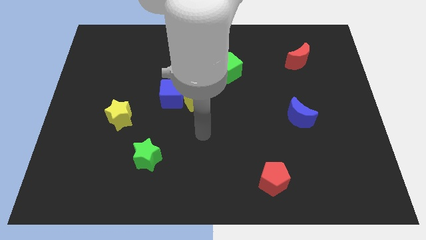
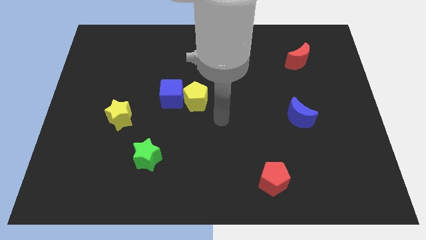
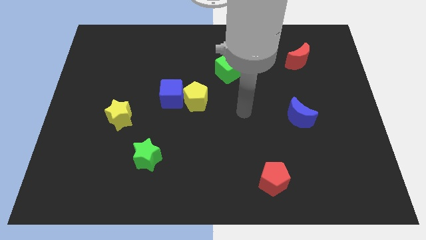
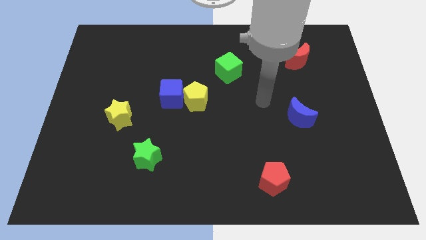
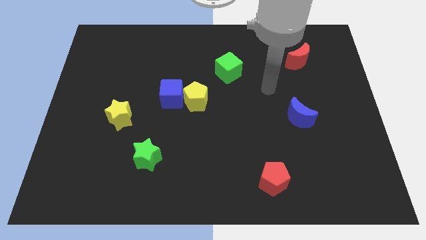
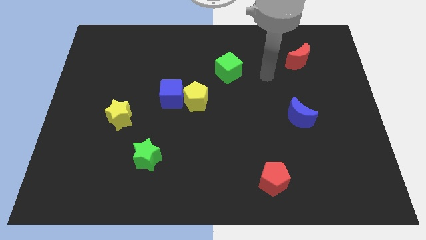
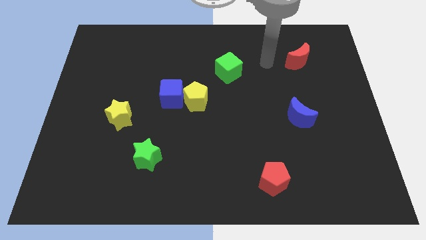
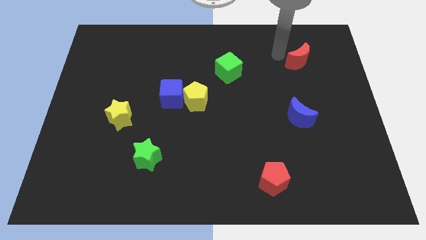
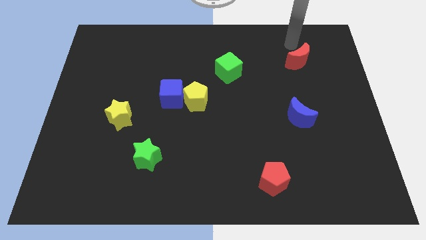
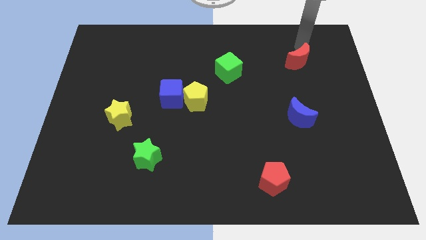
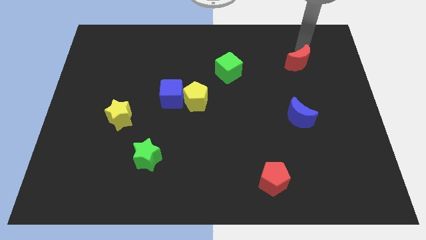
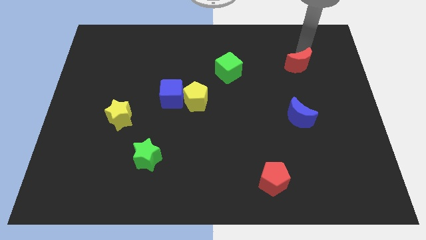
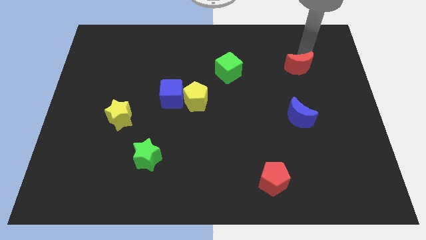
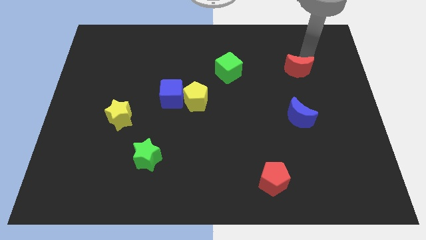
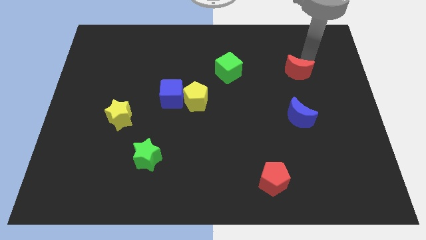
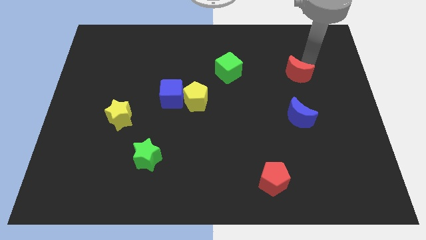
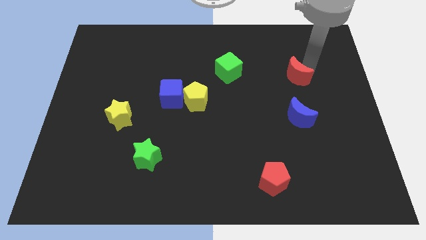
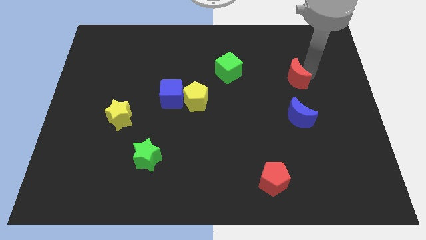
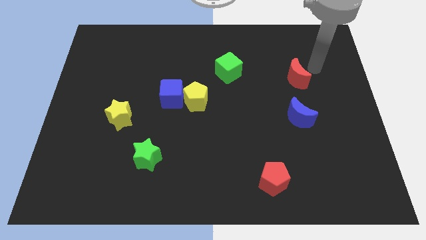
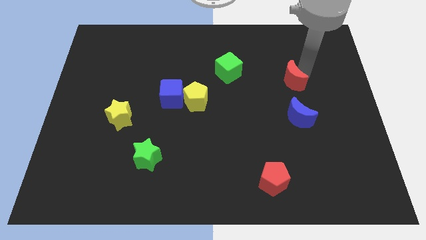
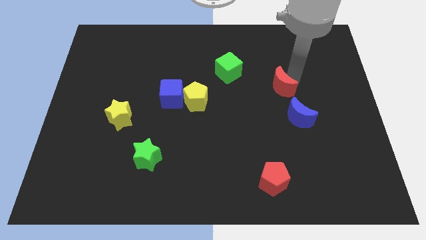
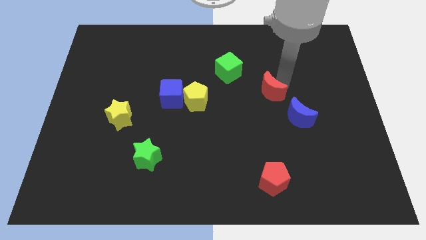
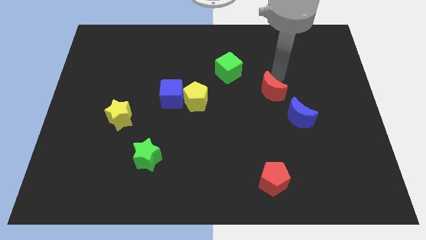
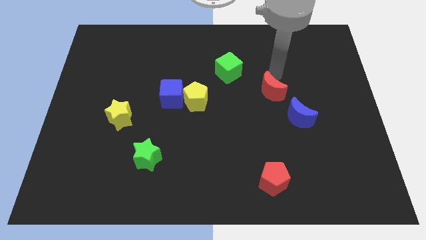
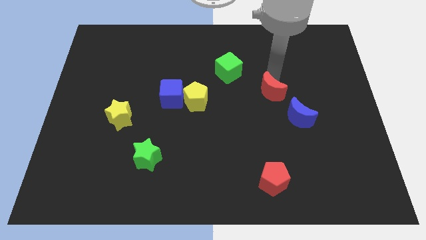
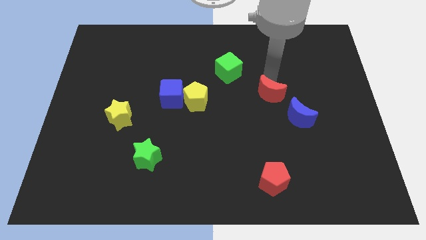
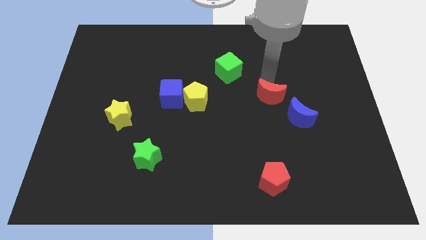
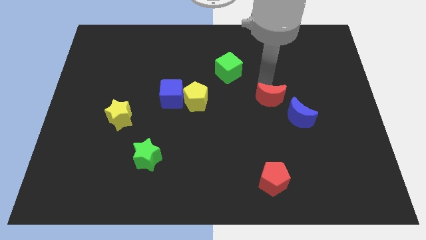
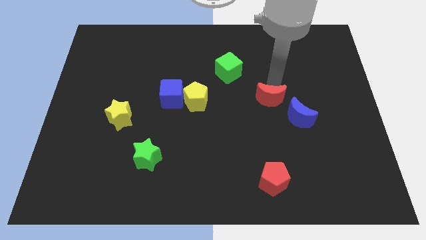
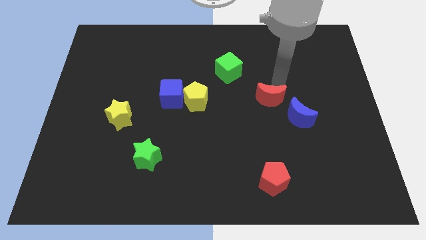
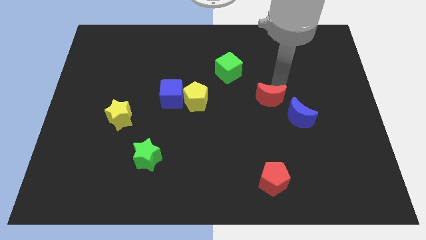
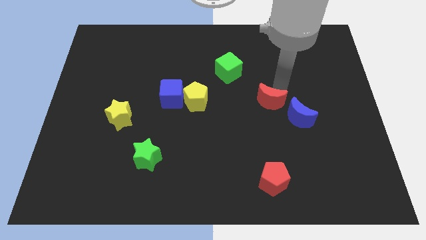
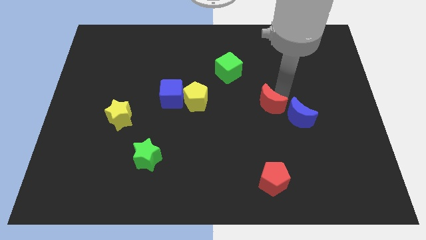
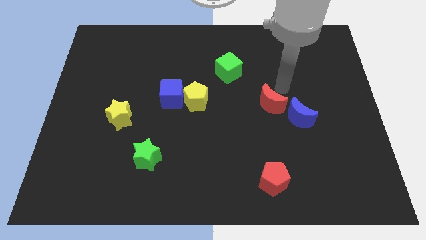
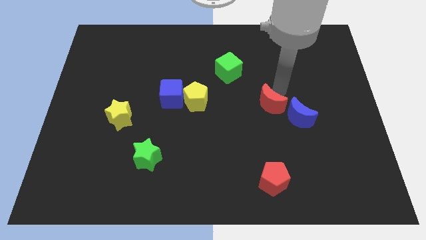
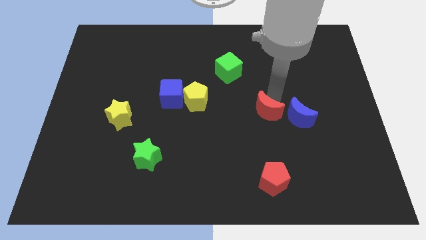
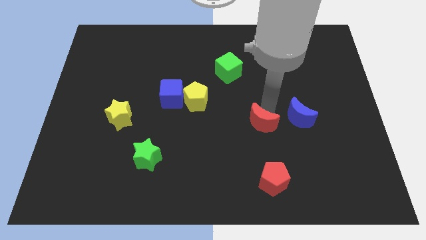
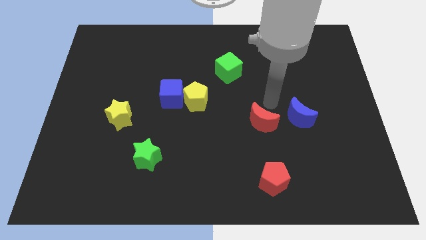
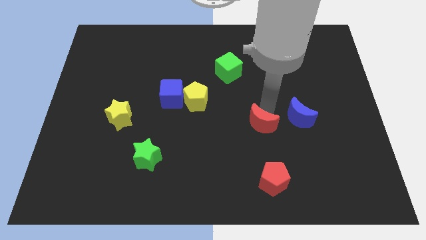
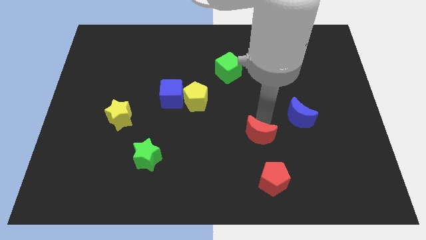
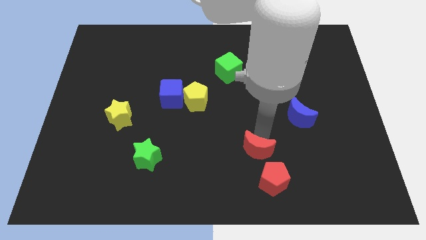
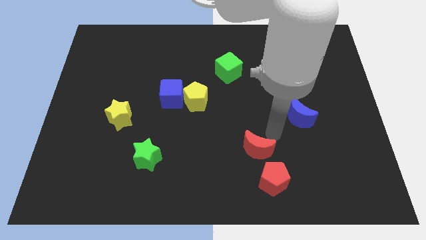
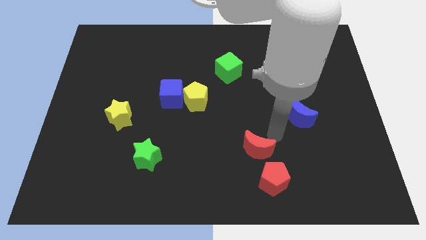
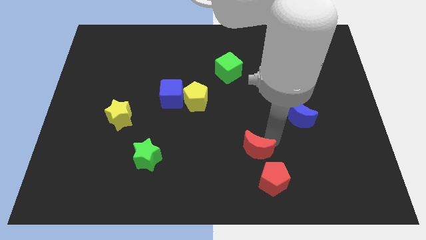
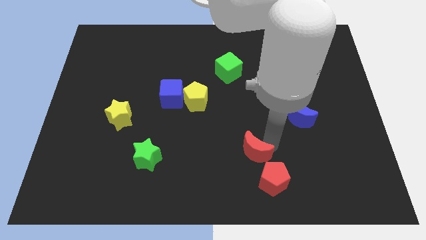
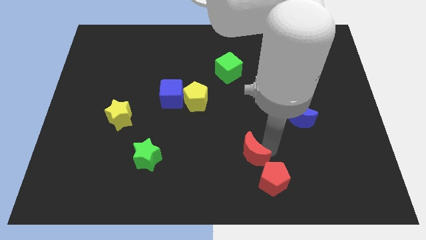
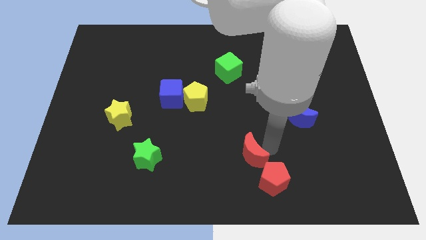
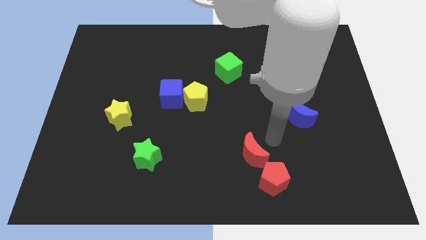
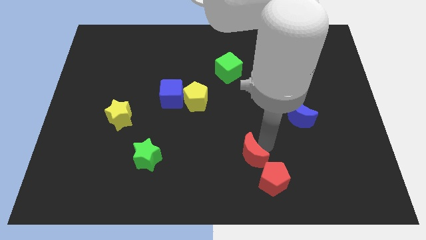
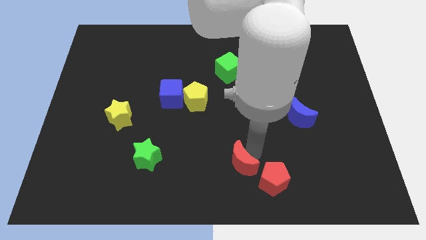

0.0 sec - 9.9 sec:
move the red moon to the bottom side
